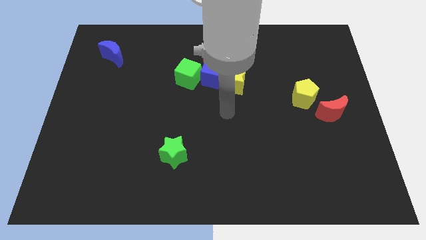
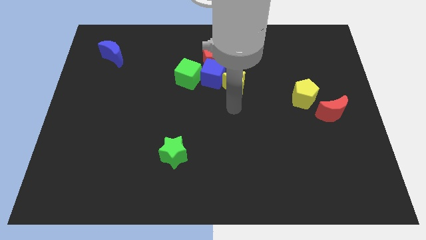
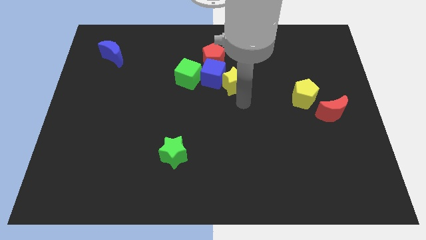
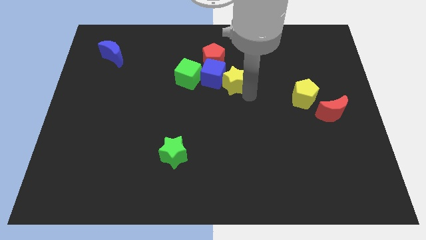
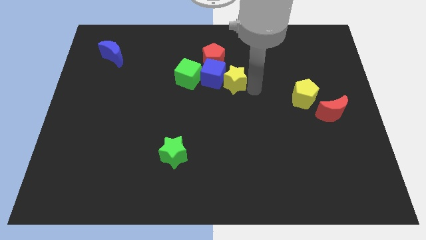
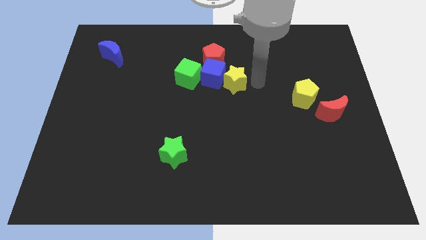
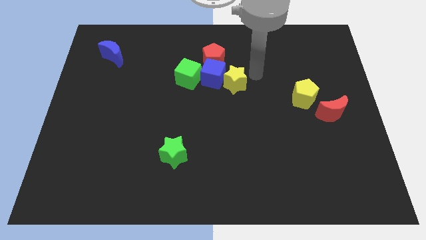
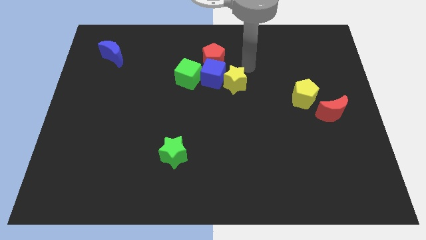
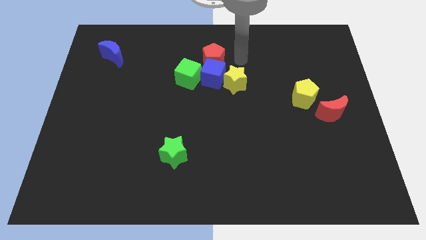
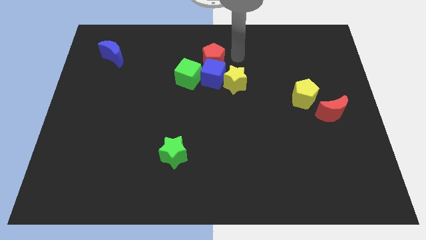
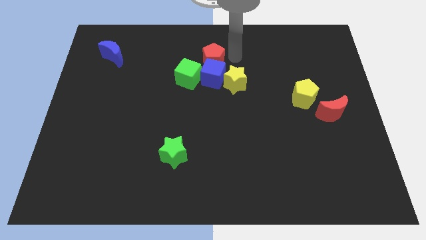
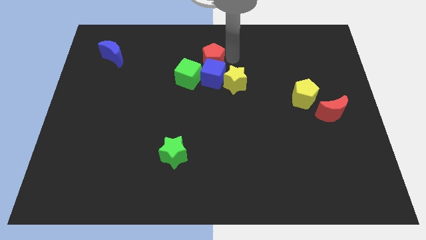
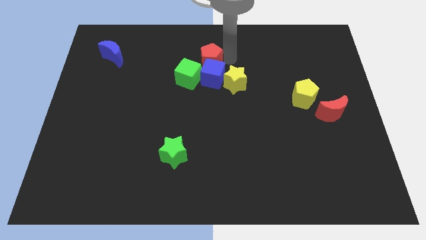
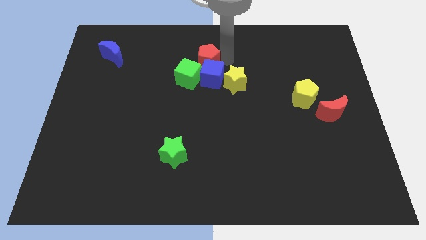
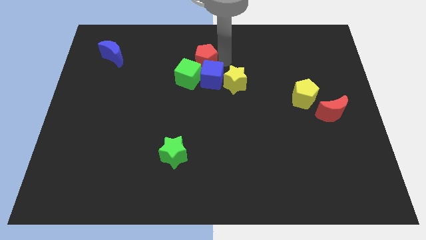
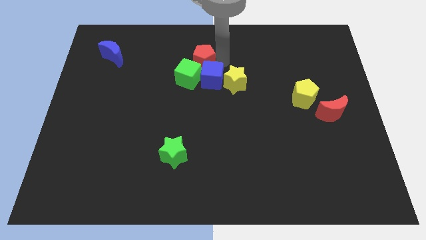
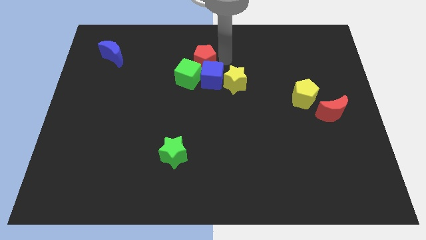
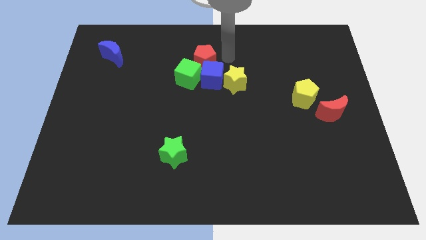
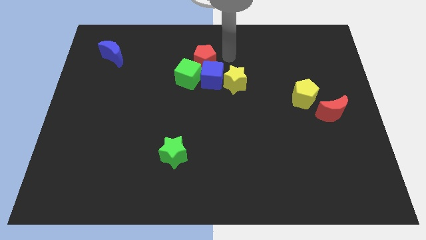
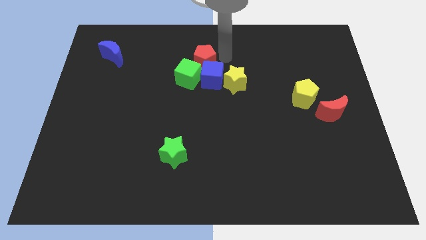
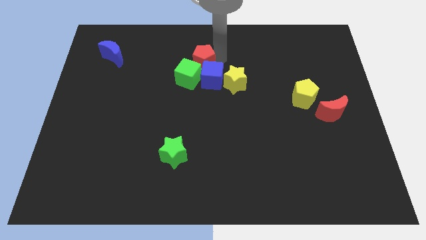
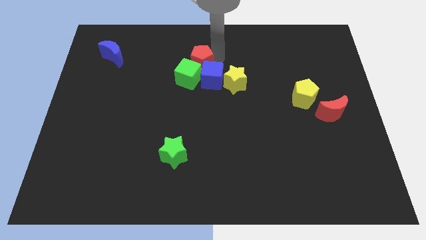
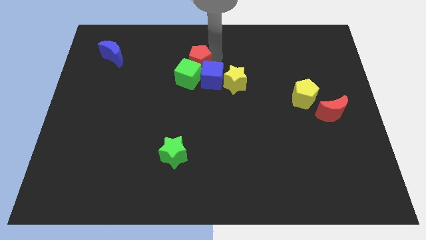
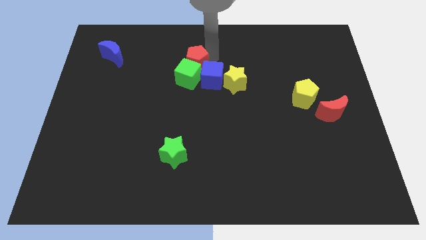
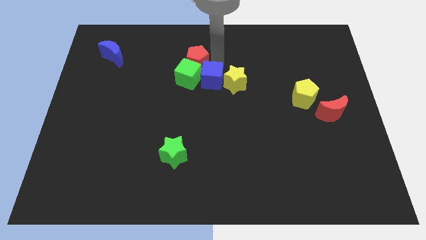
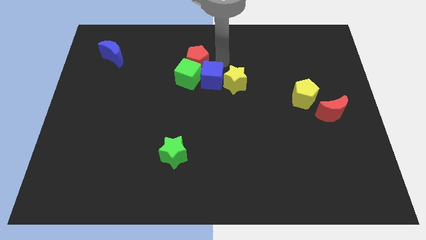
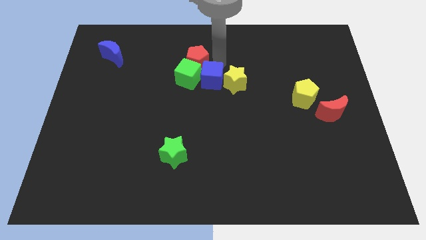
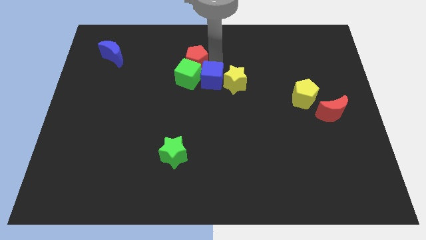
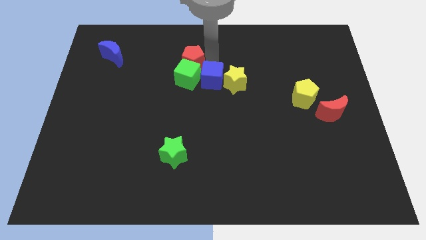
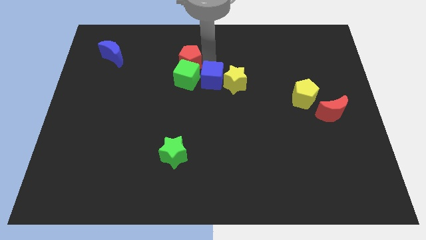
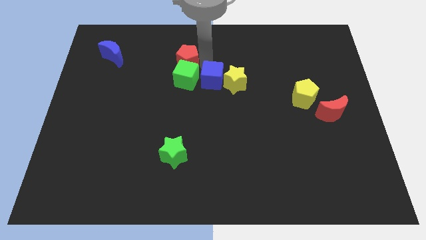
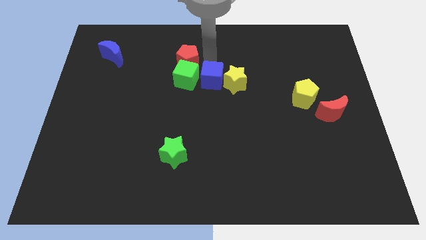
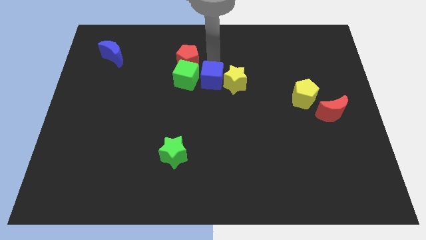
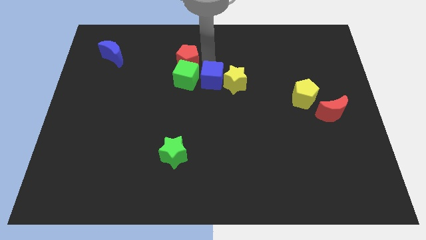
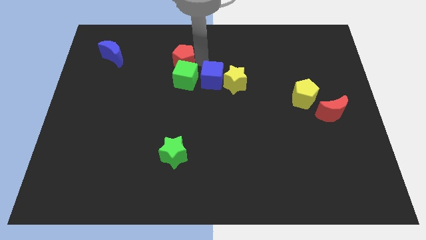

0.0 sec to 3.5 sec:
slightly slide the red pentagon left

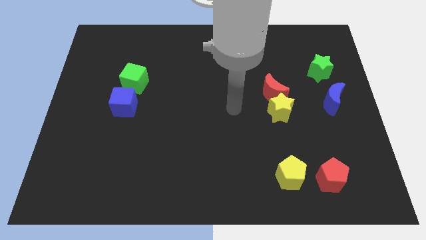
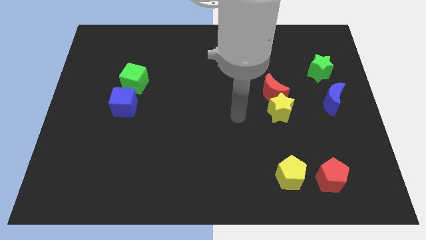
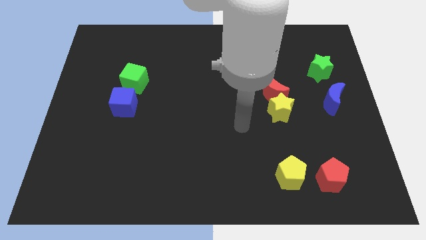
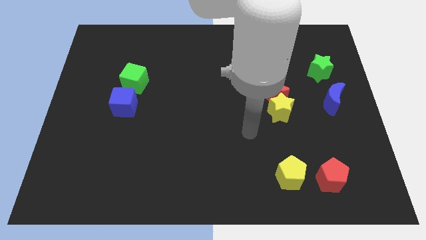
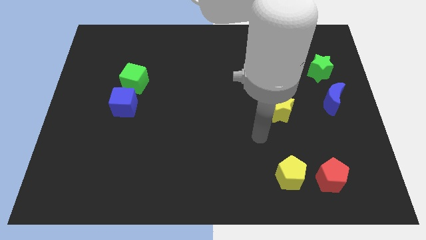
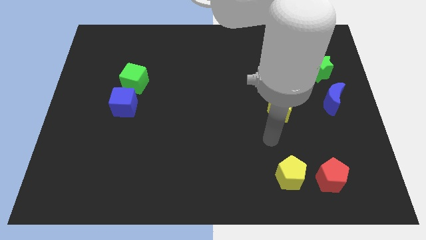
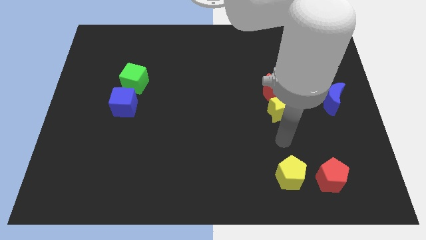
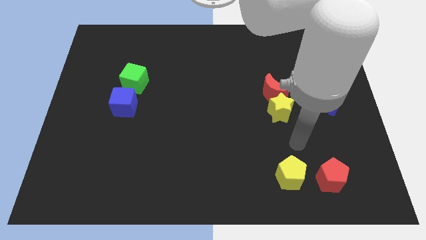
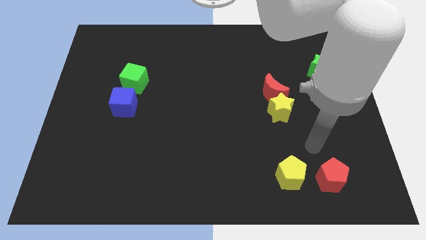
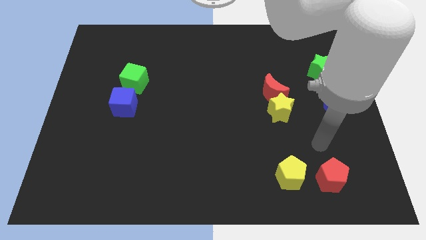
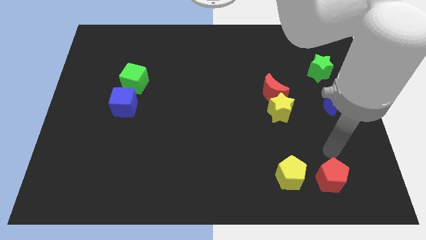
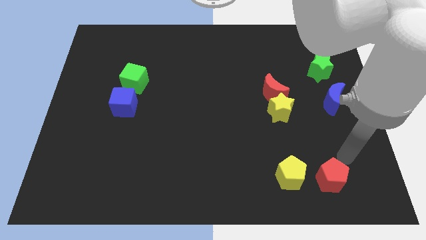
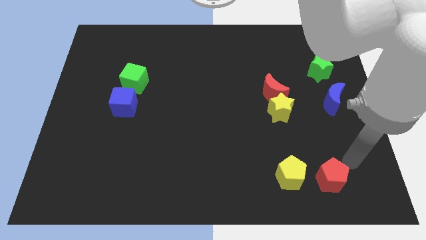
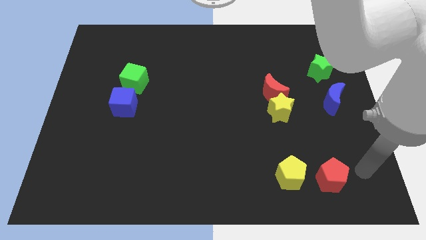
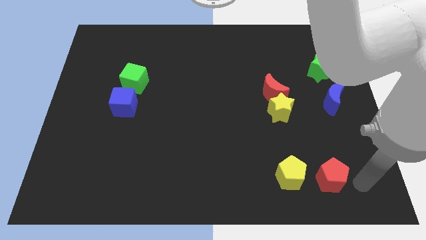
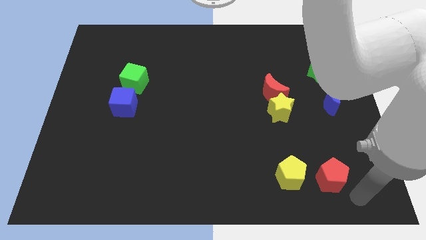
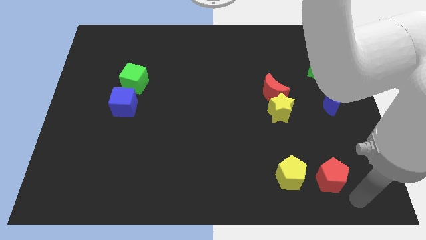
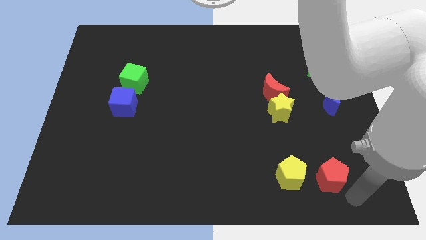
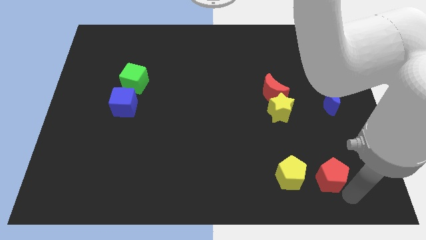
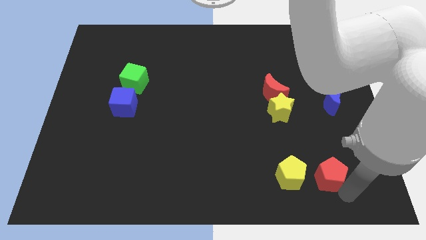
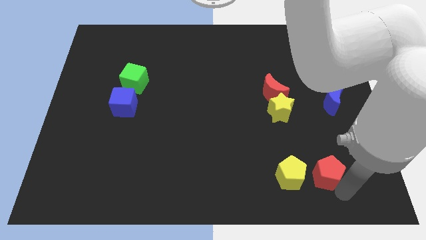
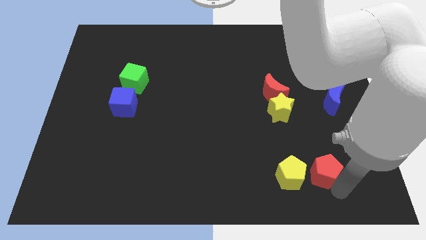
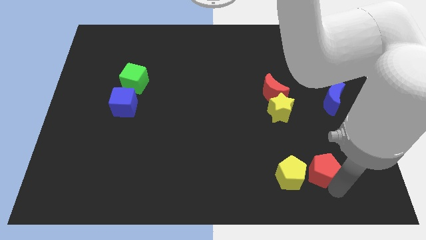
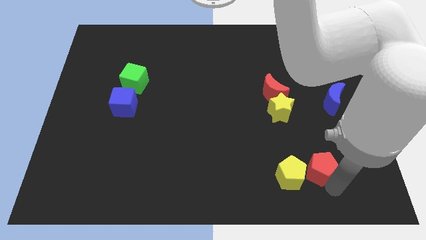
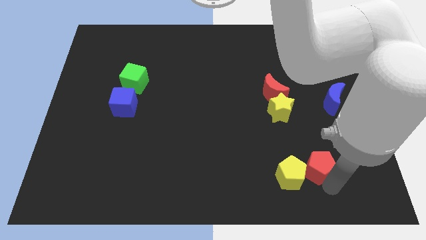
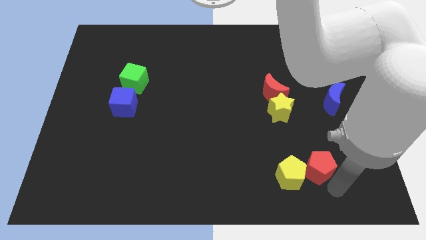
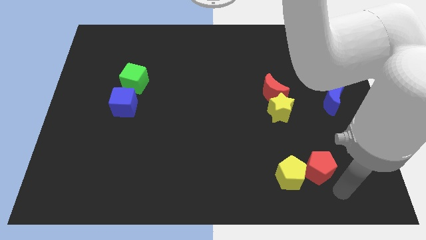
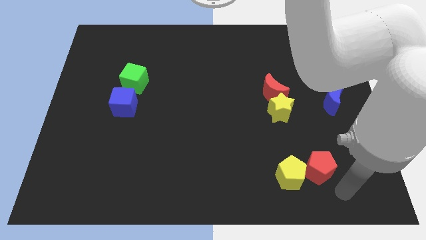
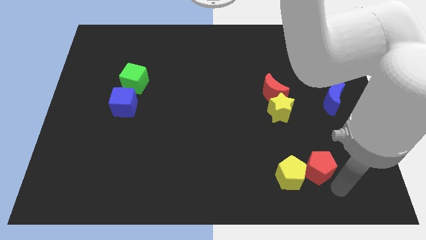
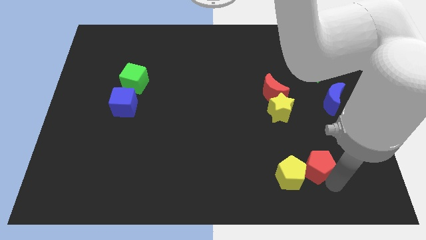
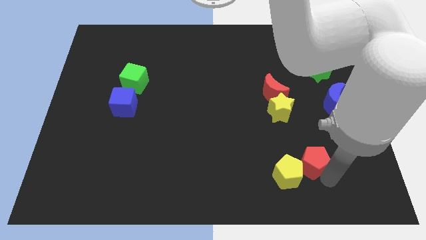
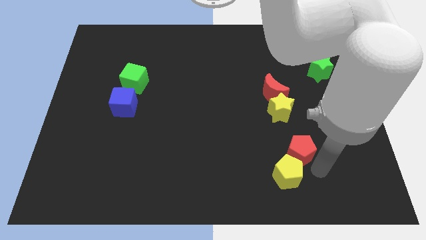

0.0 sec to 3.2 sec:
move the red pentagon a little diagonally upwards and left

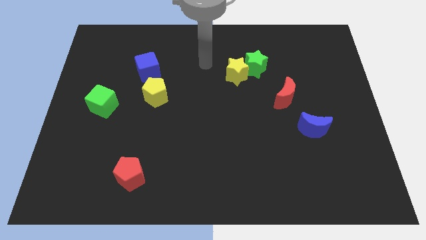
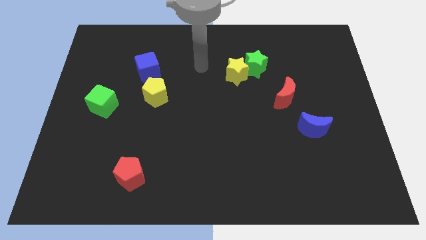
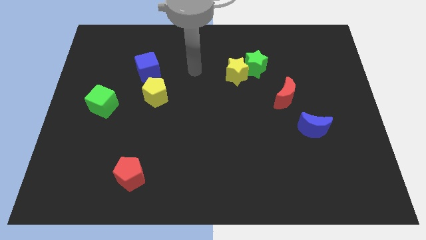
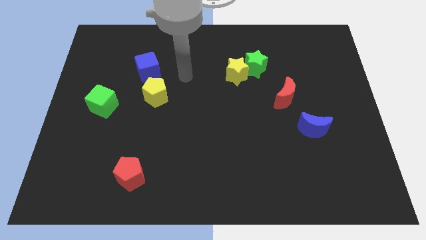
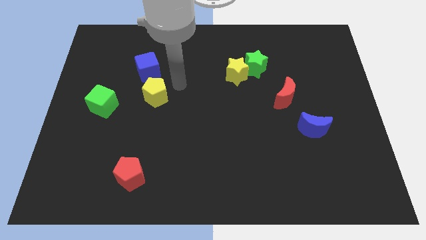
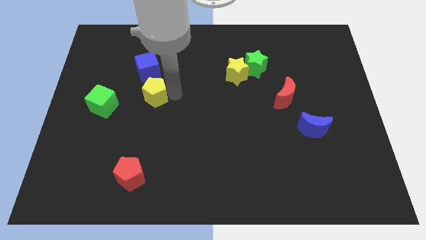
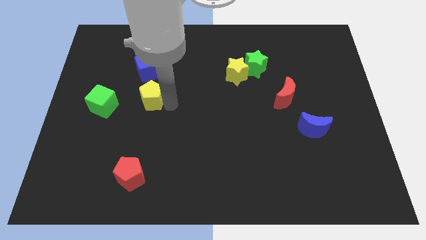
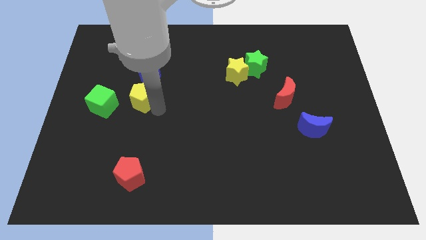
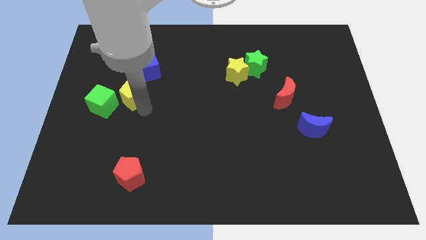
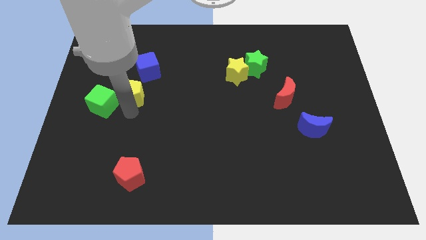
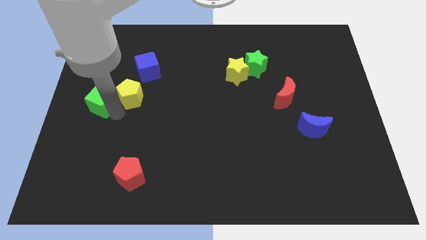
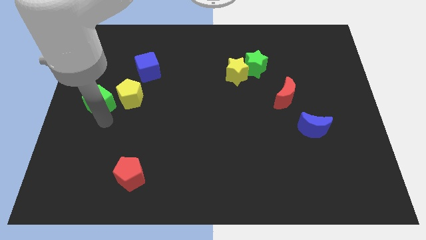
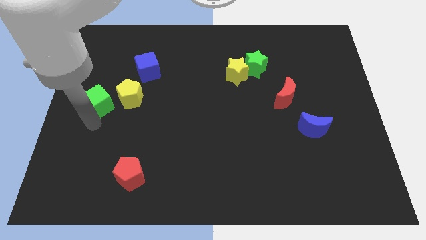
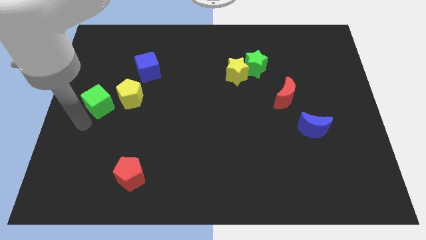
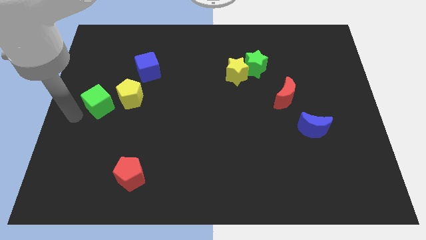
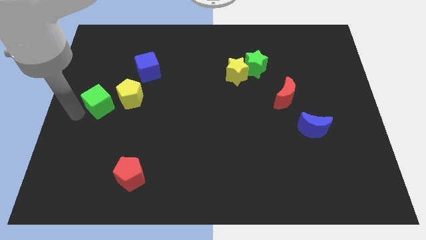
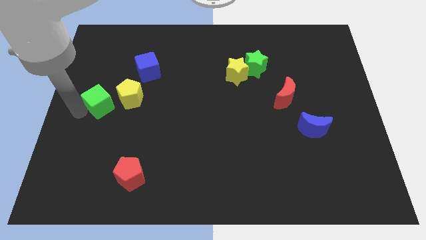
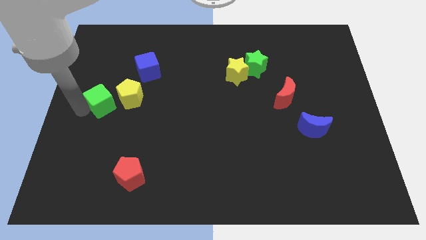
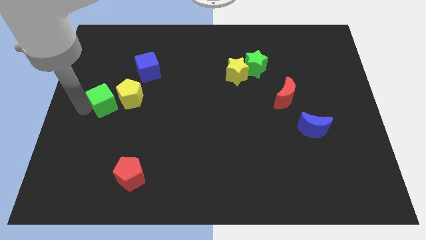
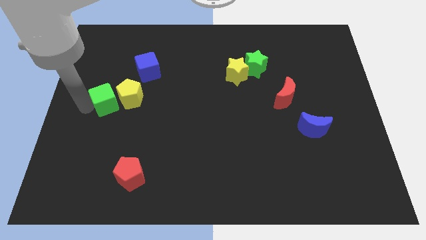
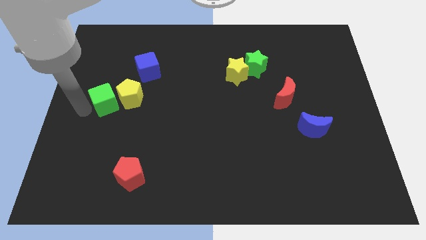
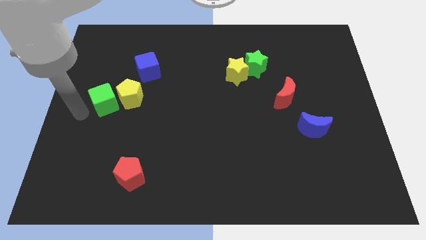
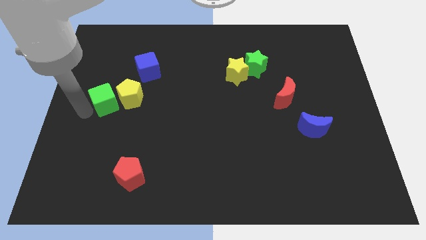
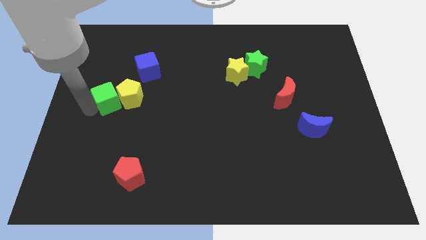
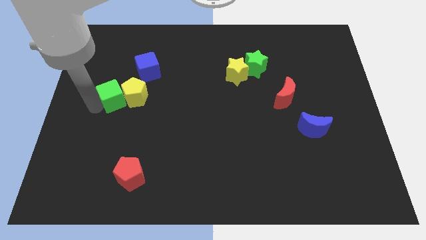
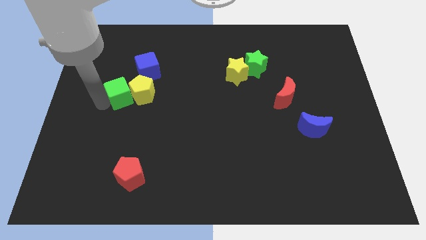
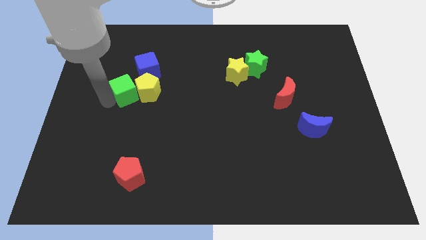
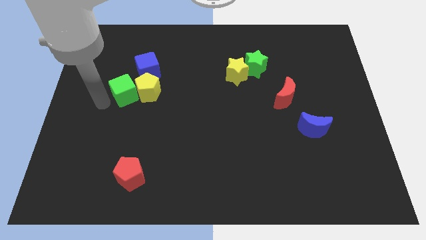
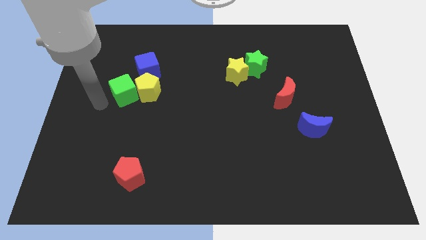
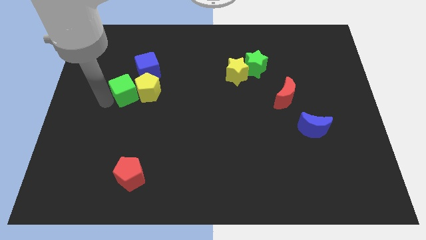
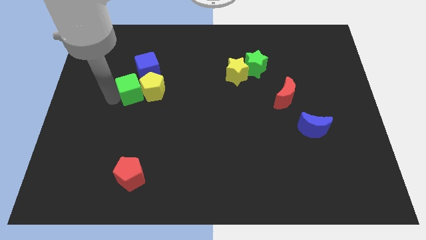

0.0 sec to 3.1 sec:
slide the green cube a little bit diagonally up and to the right
